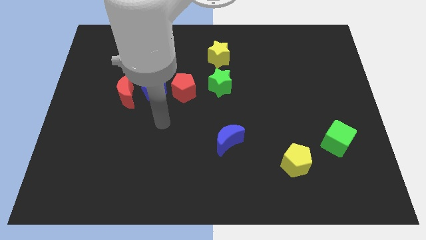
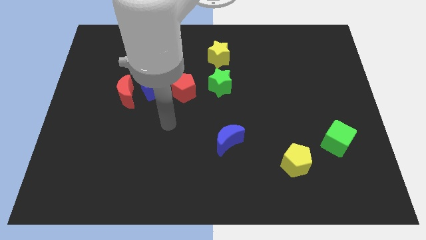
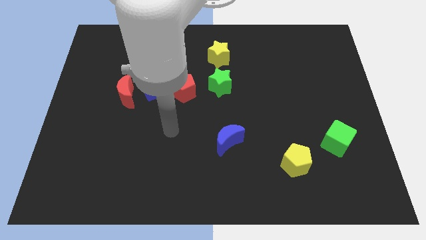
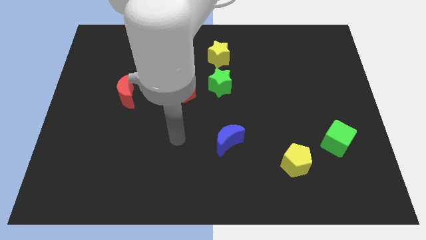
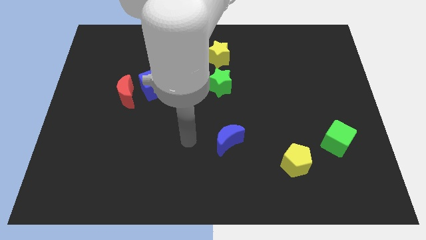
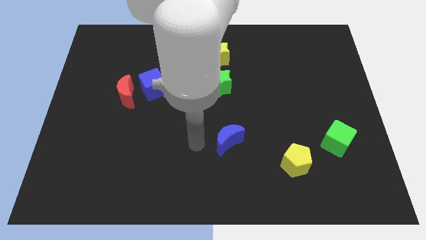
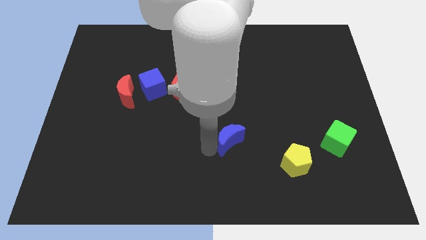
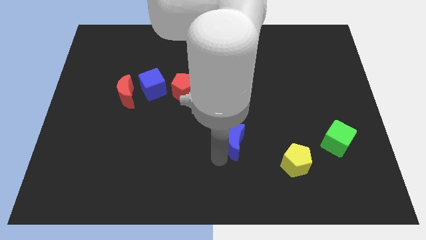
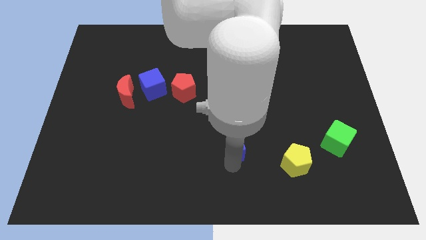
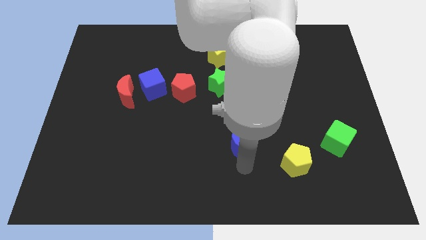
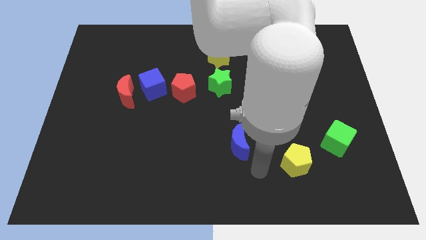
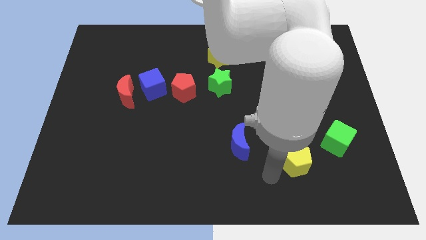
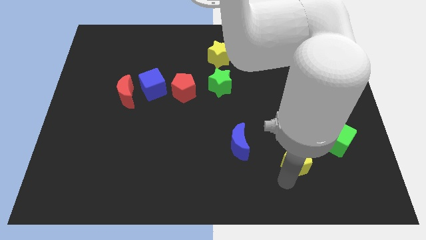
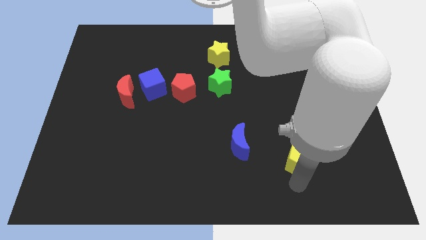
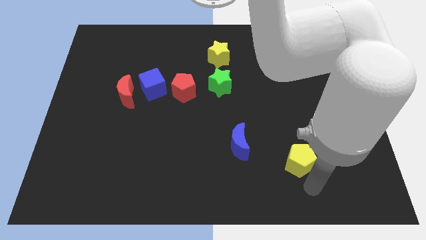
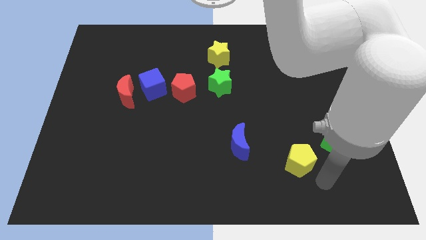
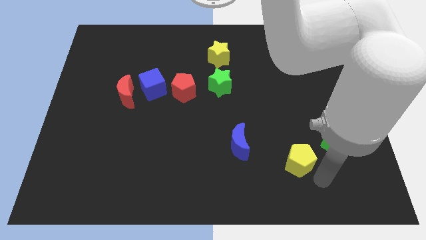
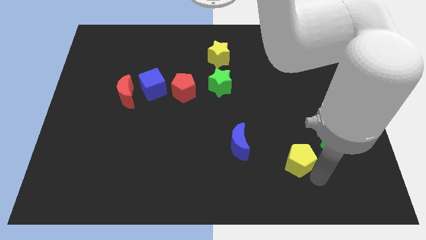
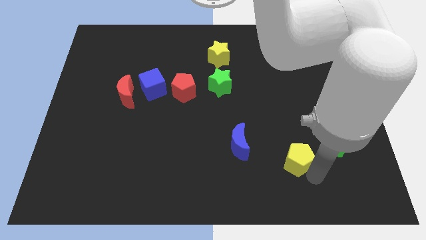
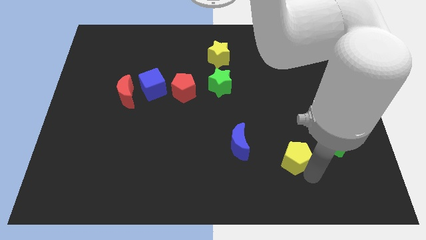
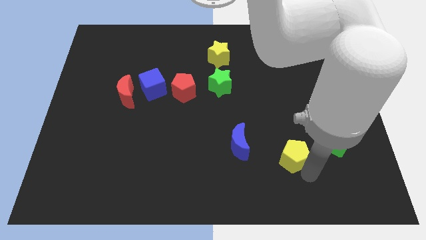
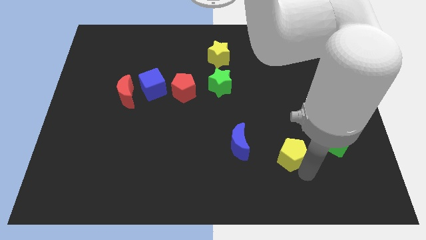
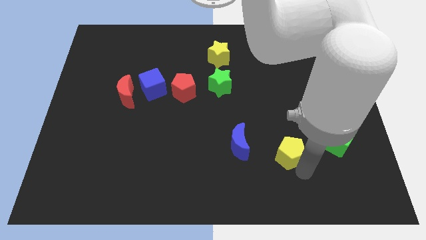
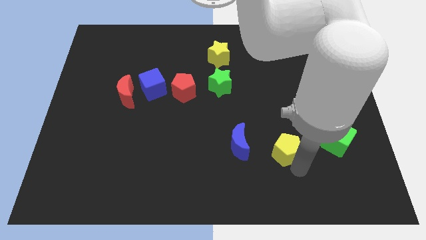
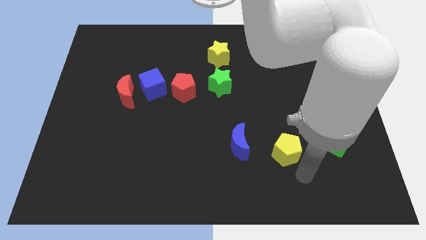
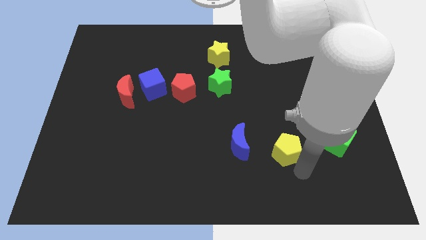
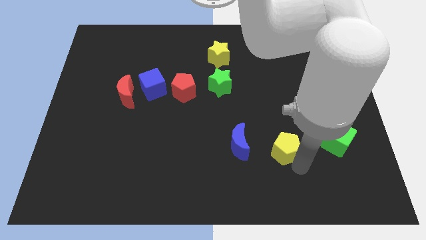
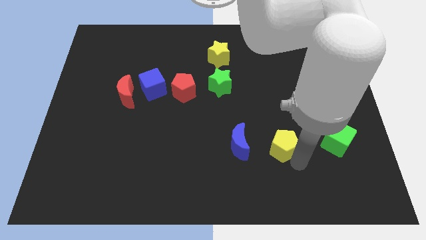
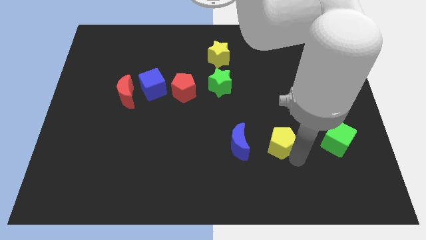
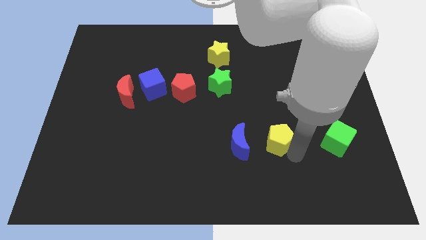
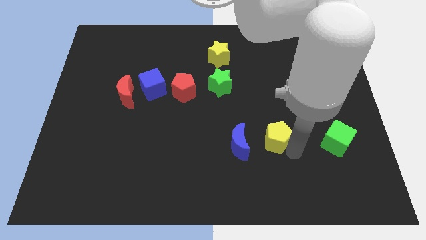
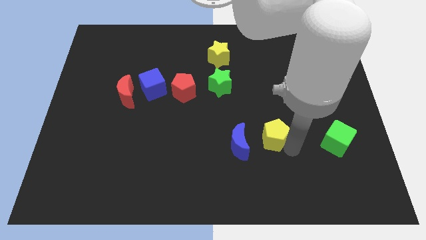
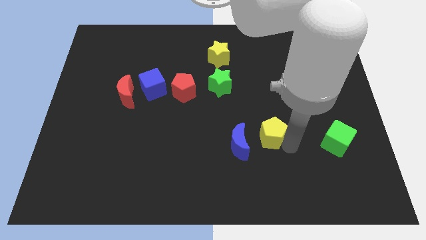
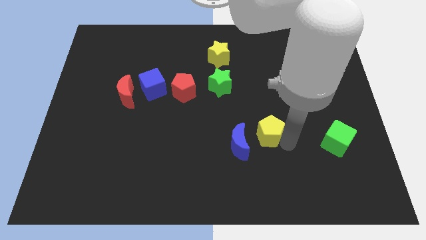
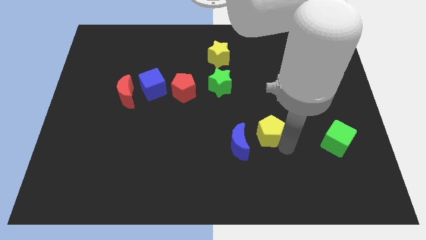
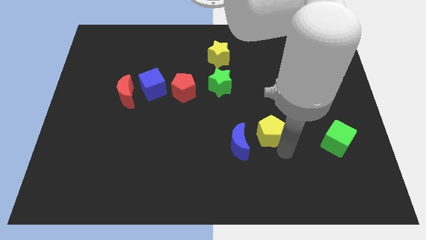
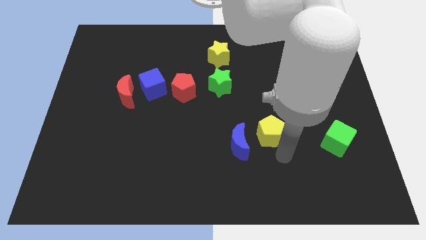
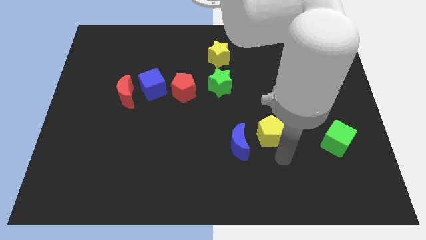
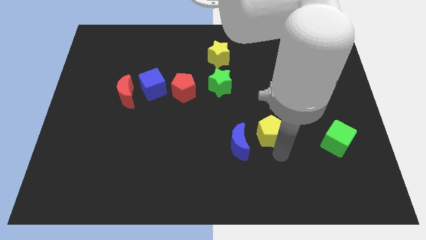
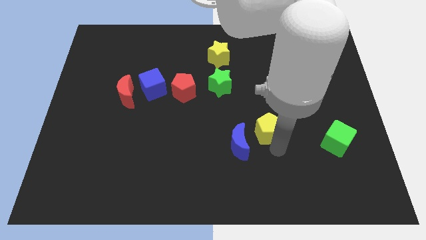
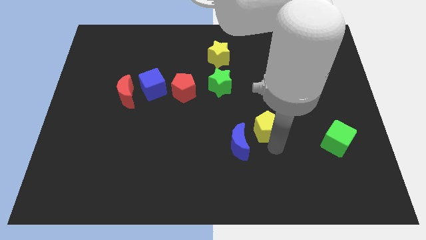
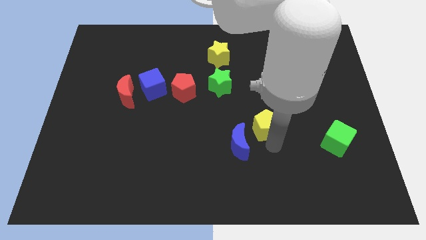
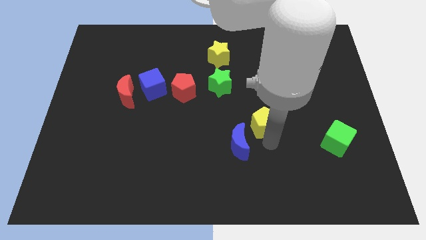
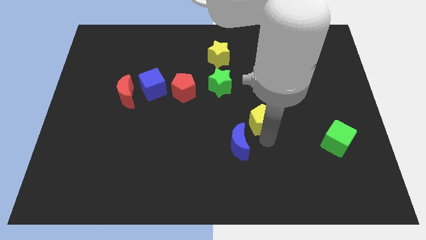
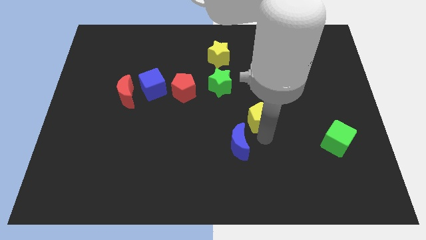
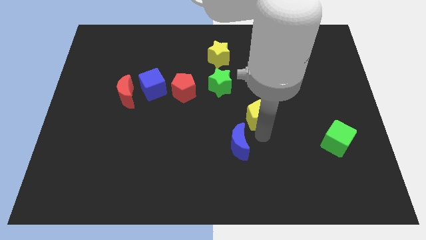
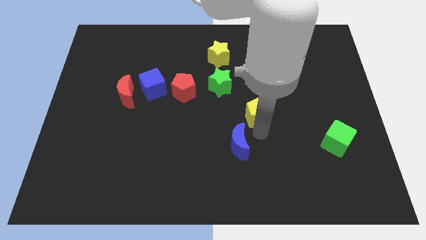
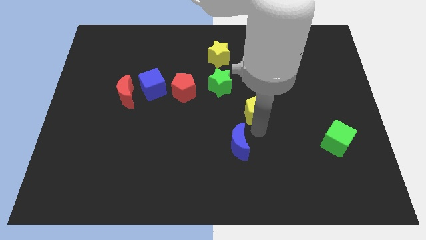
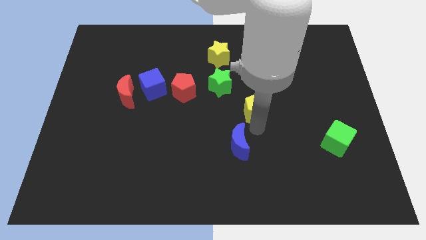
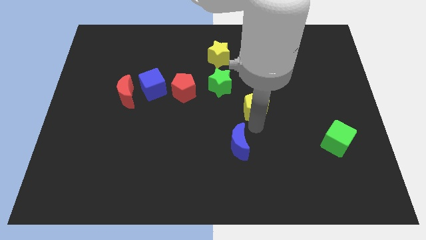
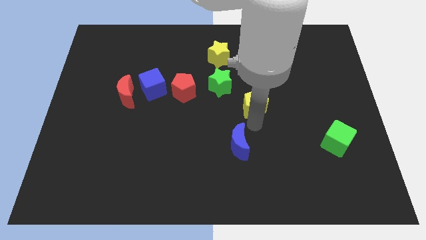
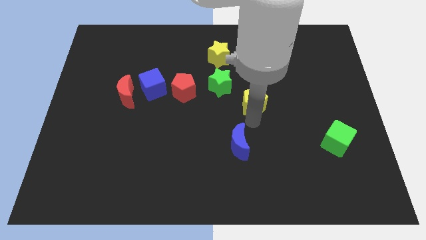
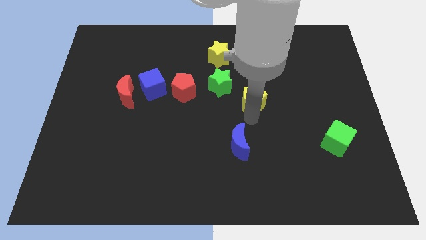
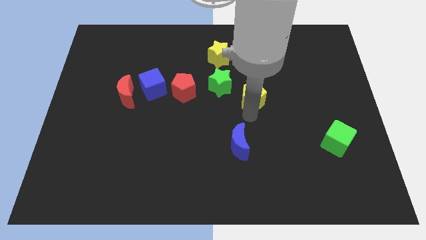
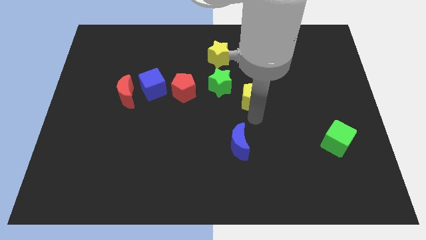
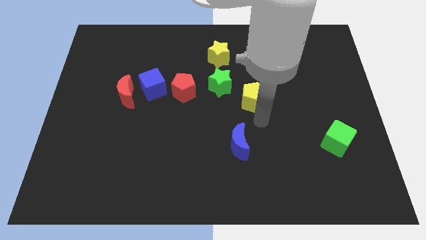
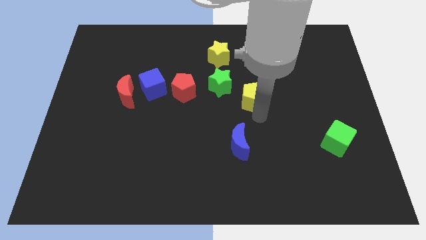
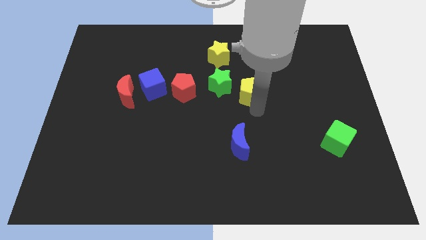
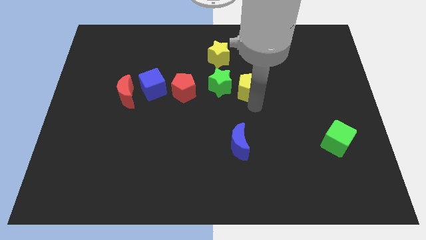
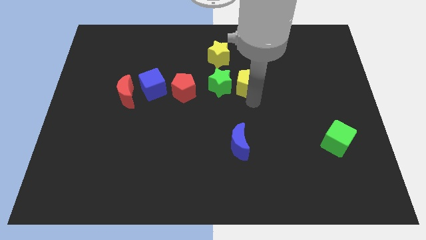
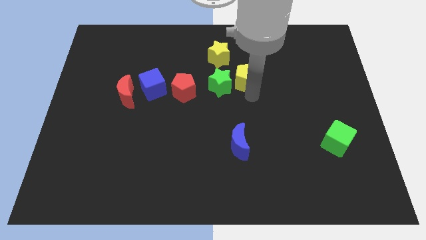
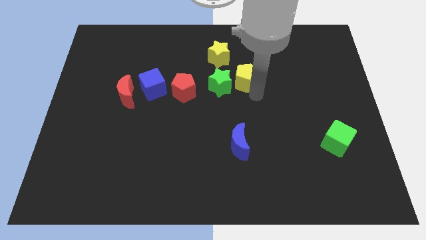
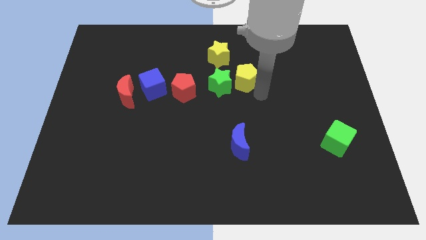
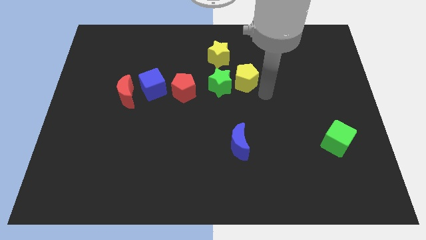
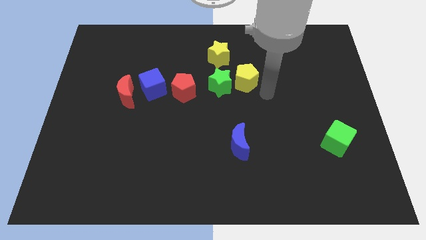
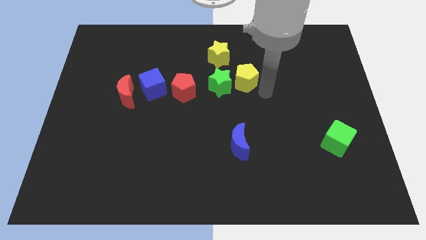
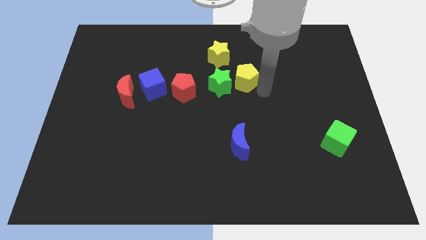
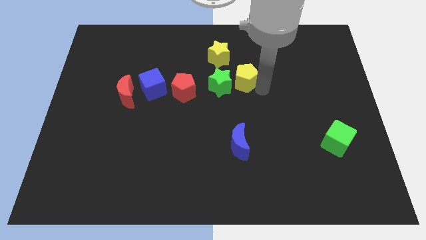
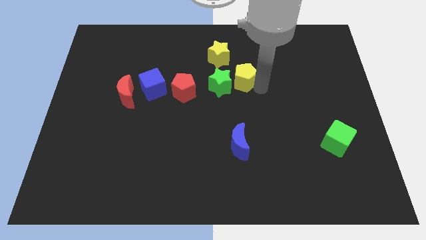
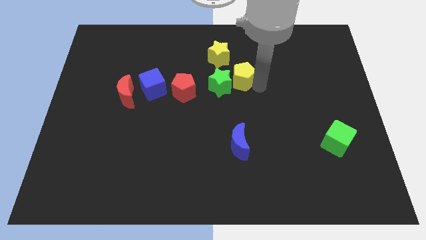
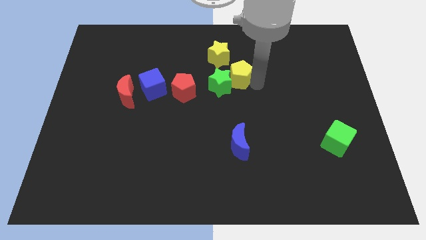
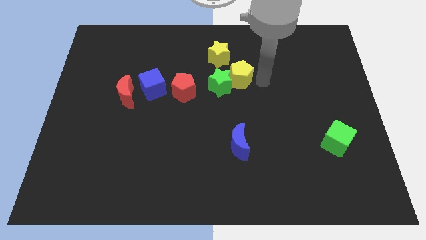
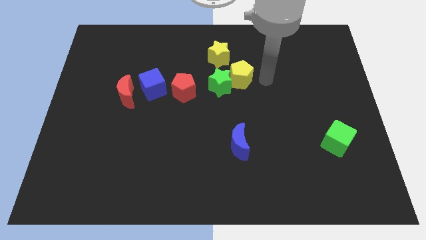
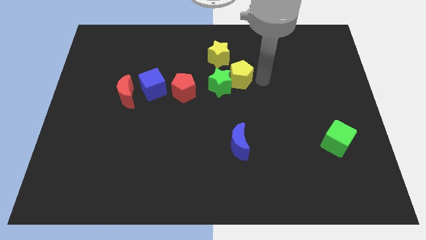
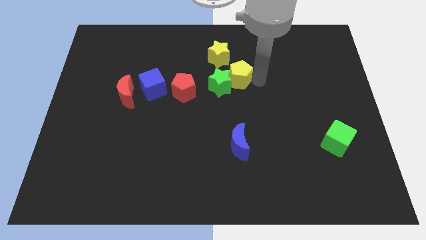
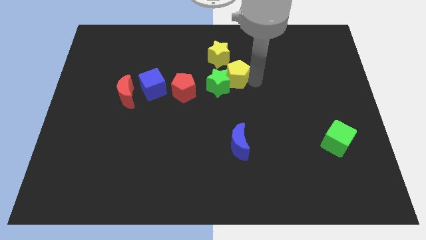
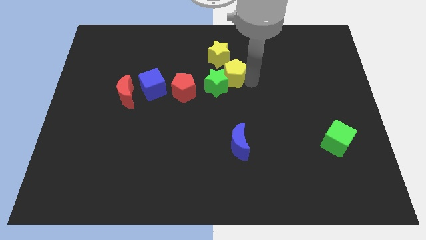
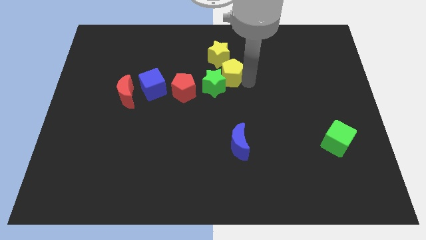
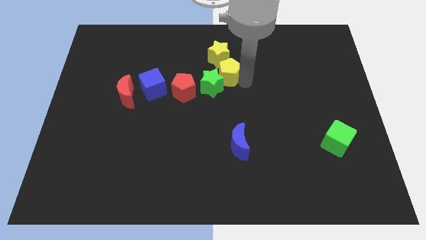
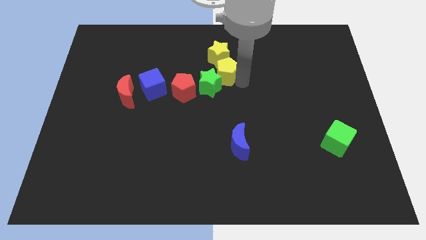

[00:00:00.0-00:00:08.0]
move the yellow pentagon to the top right of the red pentagon
